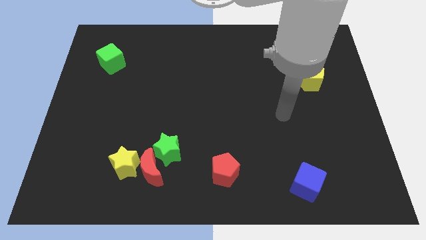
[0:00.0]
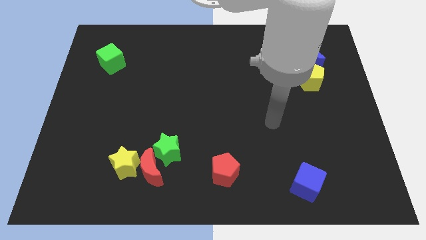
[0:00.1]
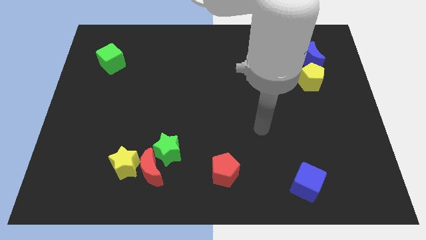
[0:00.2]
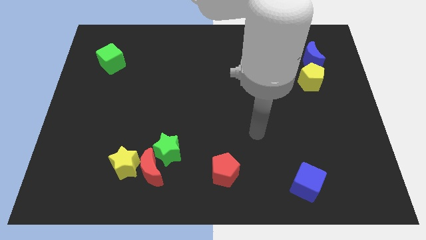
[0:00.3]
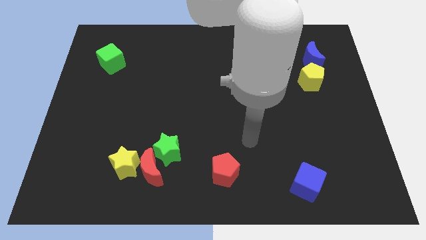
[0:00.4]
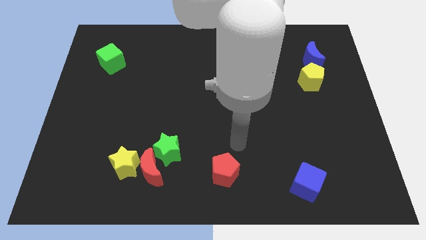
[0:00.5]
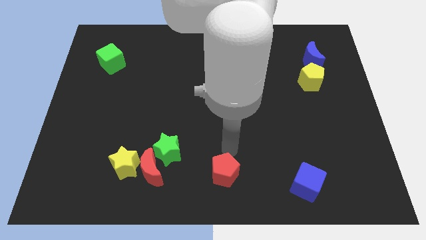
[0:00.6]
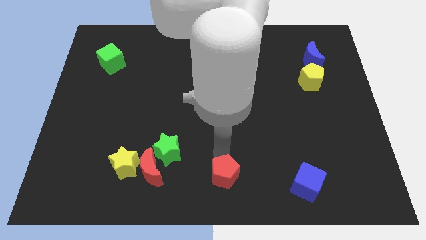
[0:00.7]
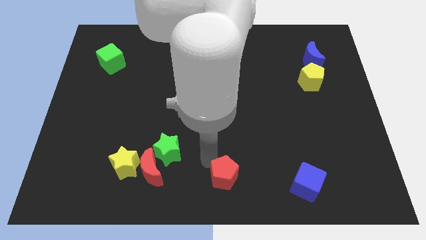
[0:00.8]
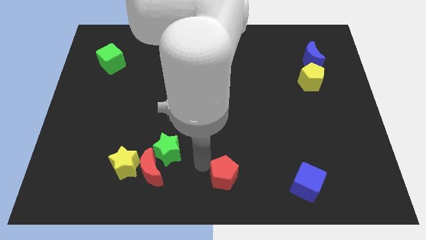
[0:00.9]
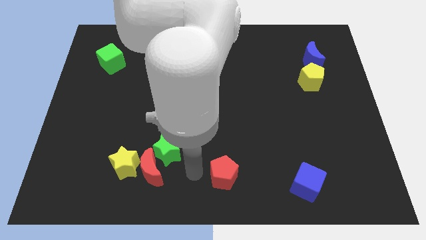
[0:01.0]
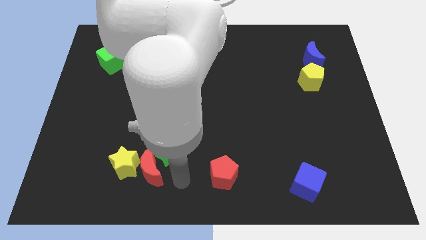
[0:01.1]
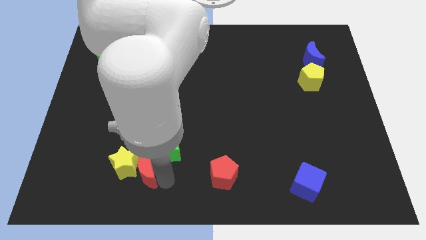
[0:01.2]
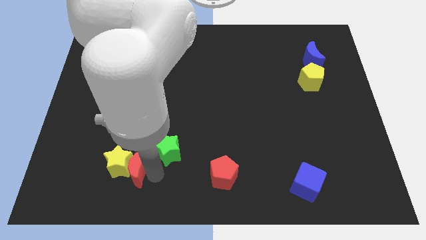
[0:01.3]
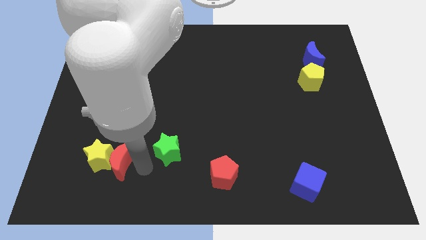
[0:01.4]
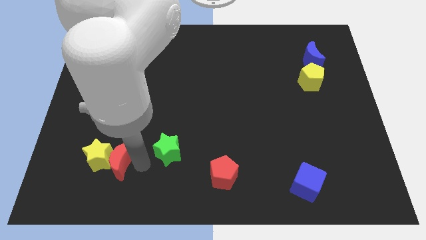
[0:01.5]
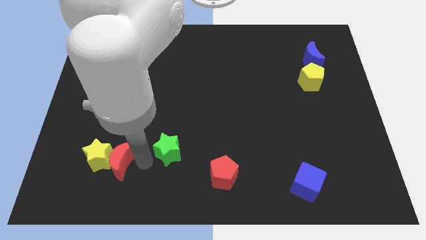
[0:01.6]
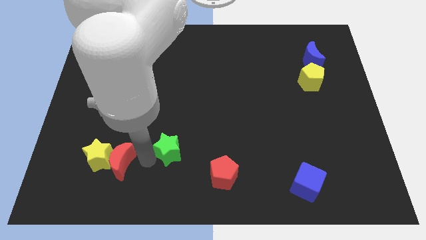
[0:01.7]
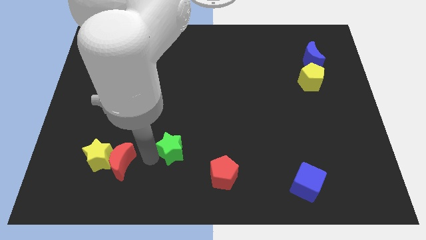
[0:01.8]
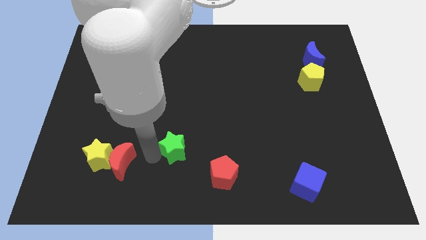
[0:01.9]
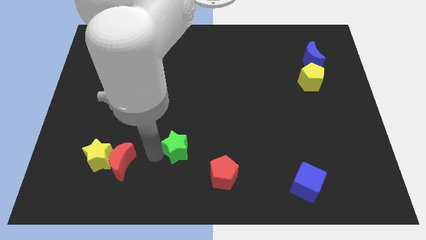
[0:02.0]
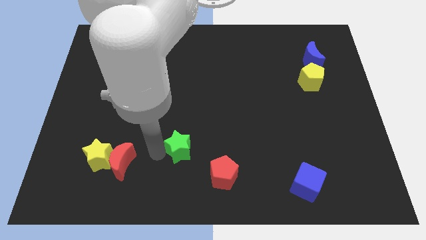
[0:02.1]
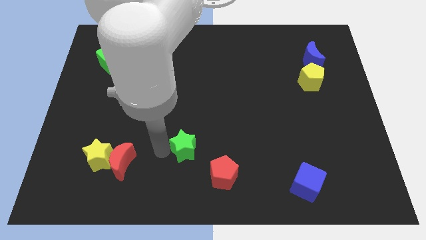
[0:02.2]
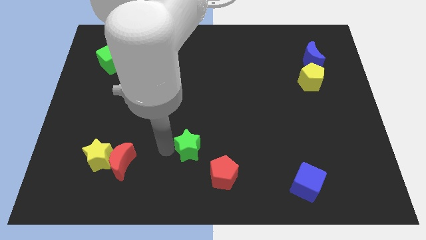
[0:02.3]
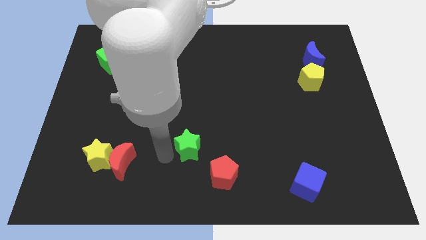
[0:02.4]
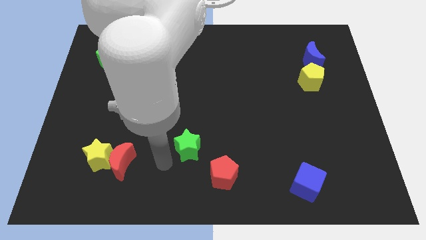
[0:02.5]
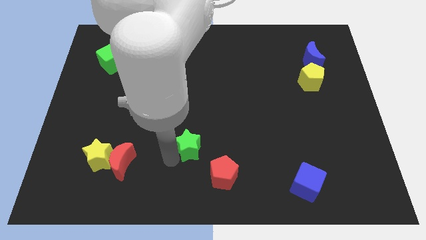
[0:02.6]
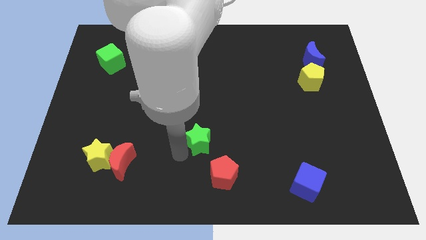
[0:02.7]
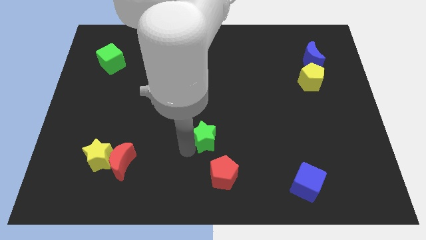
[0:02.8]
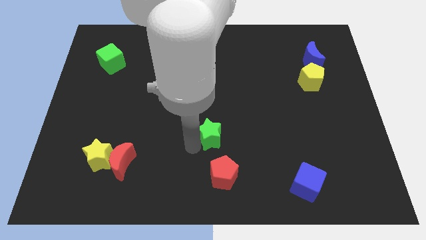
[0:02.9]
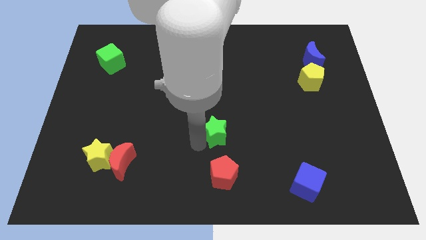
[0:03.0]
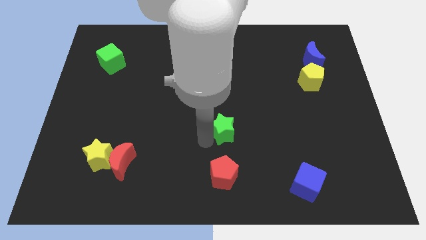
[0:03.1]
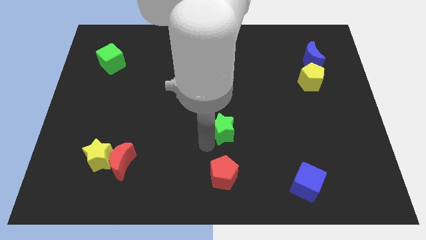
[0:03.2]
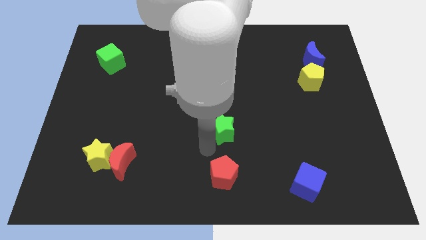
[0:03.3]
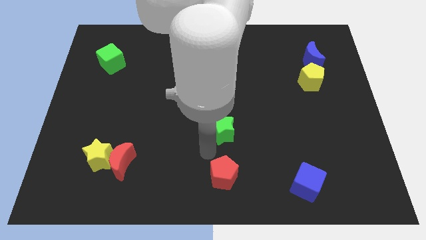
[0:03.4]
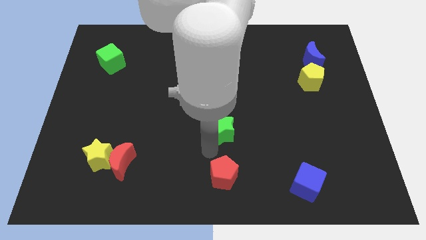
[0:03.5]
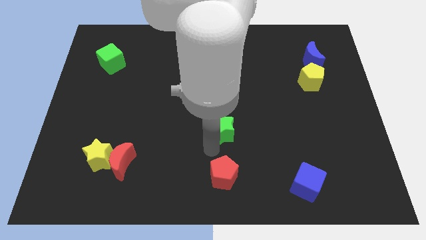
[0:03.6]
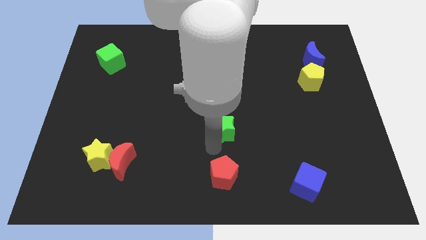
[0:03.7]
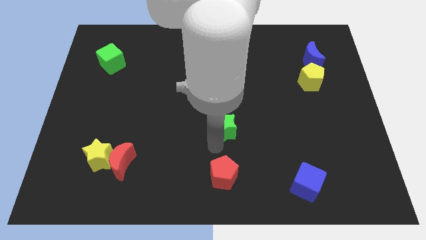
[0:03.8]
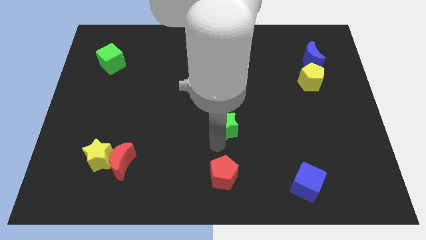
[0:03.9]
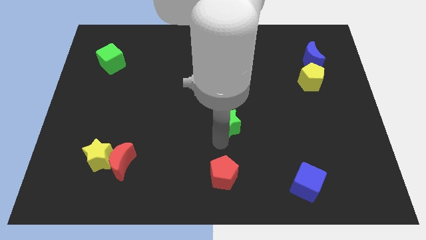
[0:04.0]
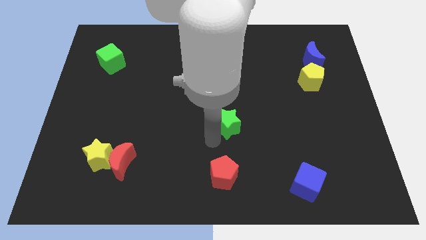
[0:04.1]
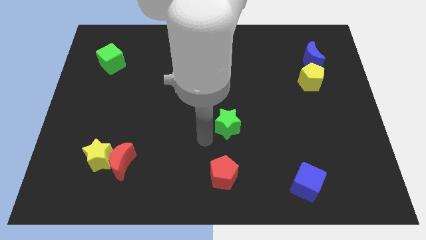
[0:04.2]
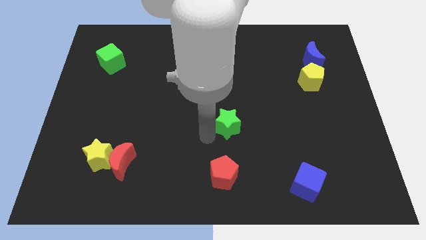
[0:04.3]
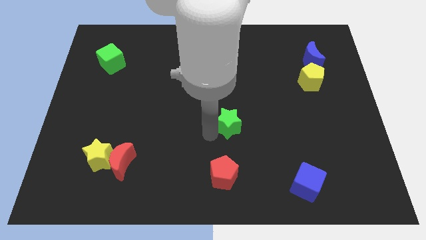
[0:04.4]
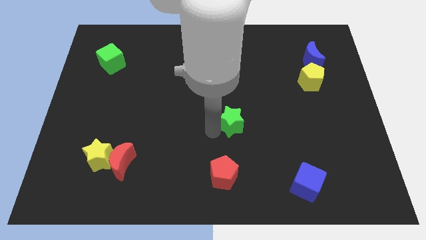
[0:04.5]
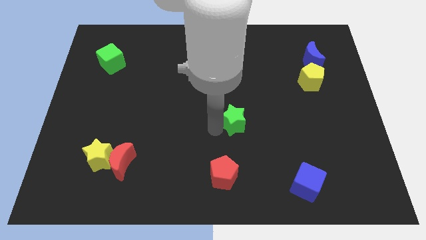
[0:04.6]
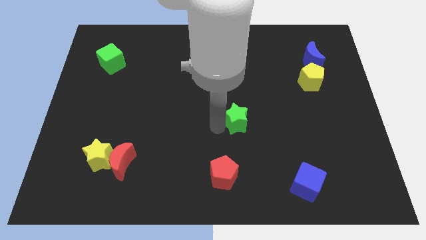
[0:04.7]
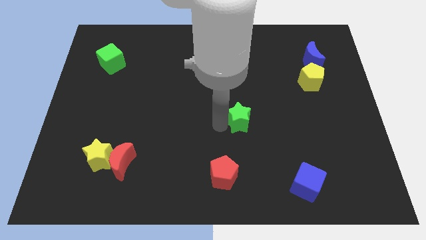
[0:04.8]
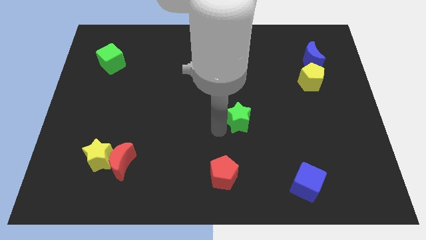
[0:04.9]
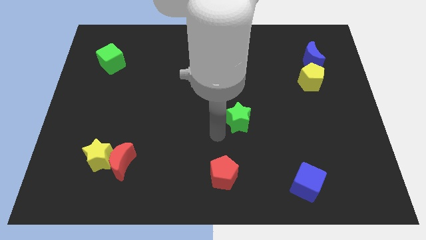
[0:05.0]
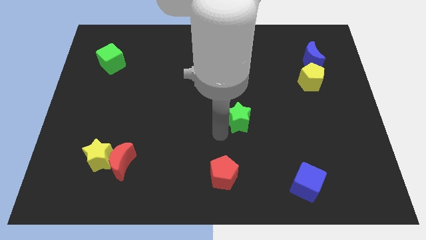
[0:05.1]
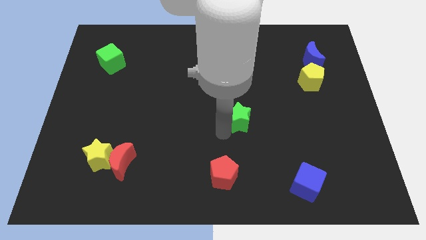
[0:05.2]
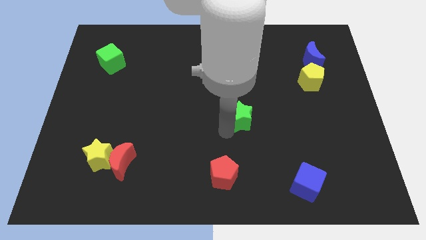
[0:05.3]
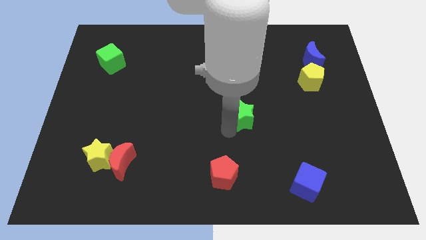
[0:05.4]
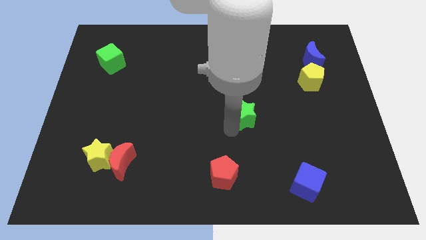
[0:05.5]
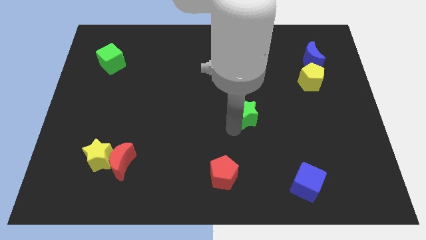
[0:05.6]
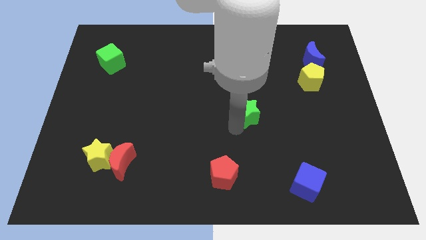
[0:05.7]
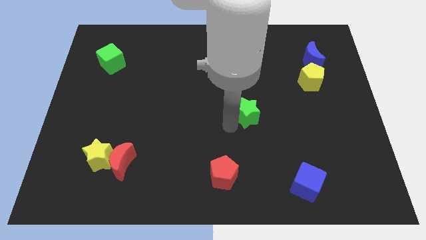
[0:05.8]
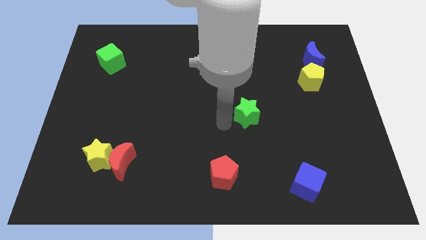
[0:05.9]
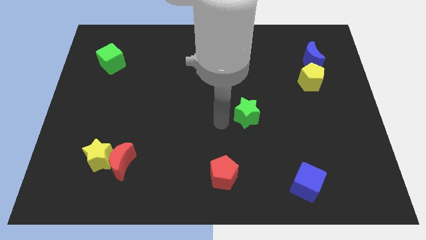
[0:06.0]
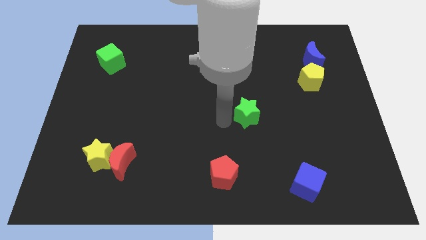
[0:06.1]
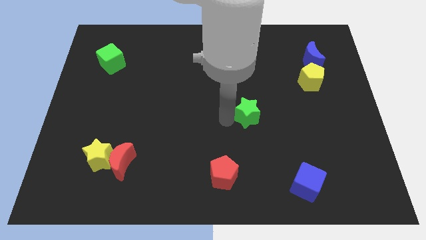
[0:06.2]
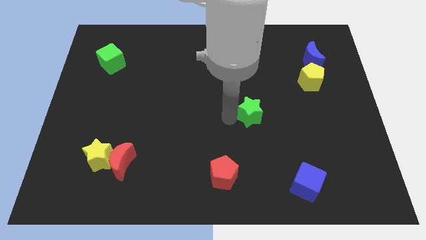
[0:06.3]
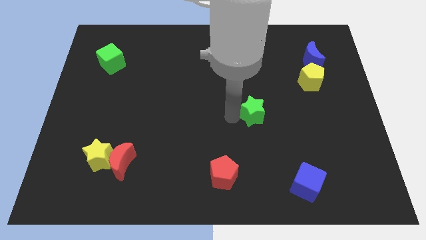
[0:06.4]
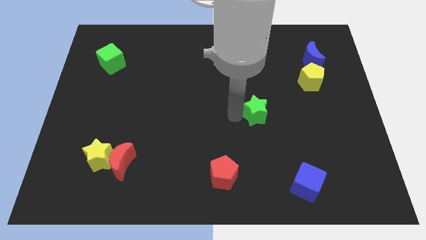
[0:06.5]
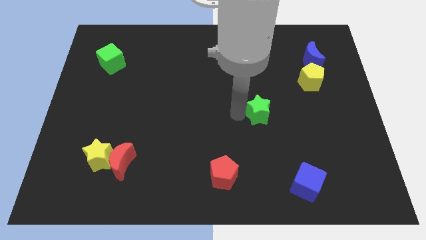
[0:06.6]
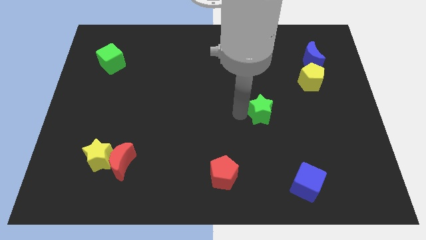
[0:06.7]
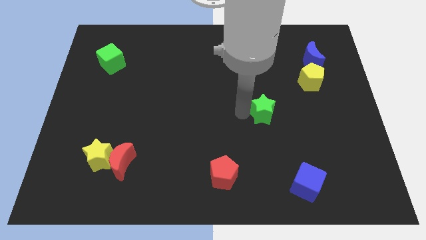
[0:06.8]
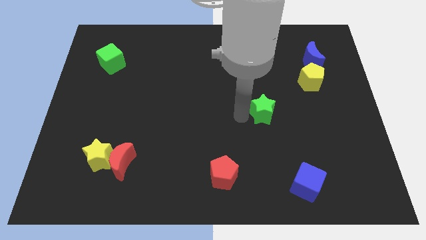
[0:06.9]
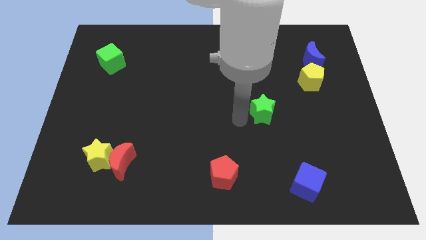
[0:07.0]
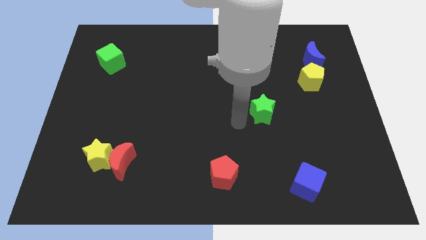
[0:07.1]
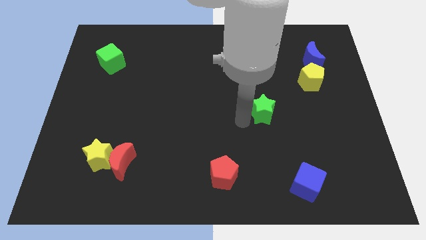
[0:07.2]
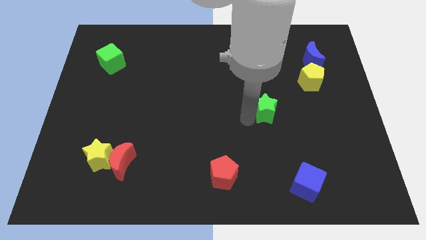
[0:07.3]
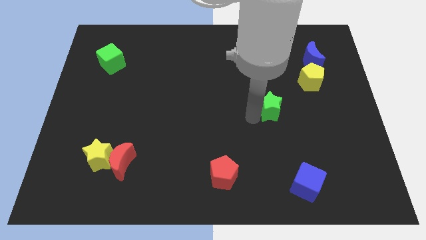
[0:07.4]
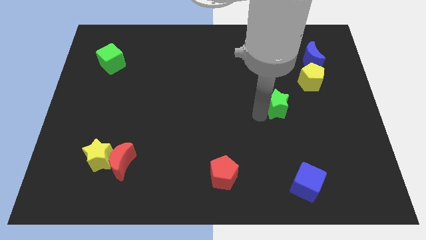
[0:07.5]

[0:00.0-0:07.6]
put the green star to the bottom left side of the yellow pentagon
